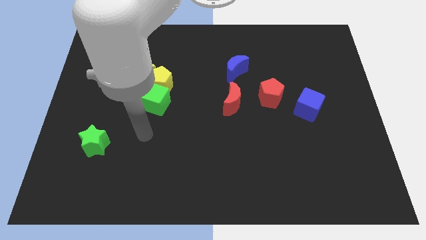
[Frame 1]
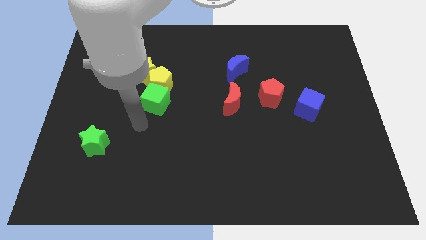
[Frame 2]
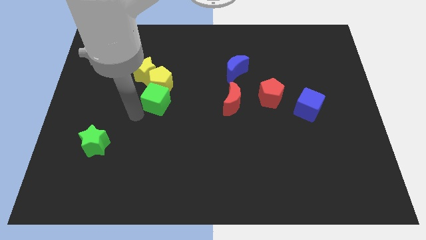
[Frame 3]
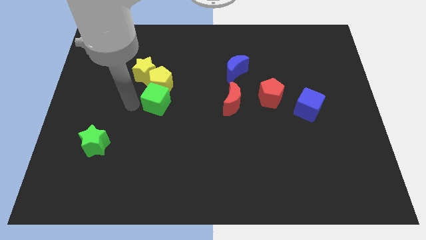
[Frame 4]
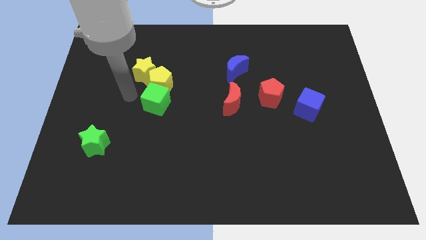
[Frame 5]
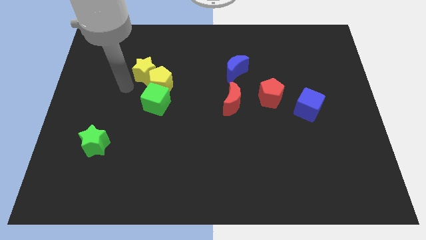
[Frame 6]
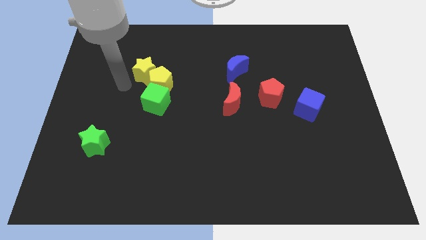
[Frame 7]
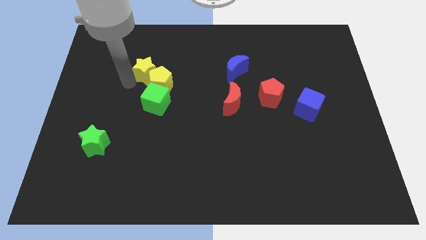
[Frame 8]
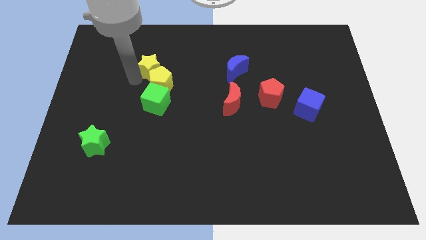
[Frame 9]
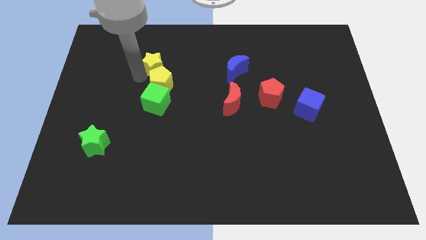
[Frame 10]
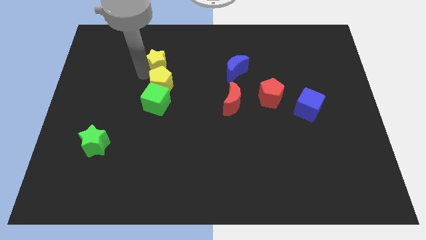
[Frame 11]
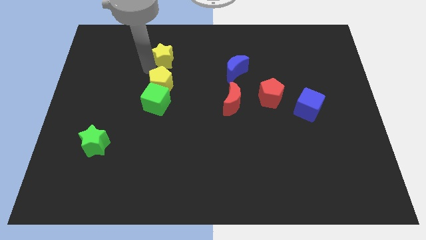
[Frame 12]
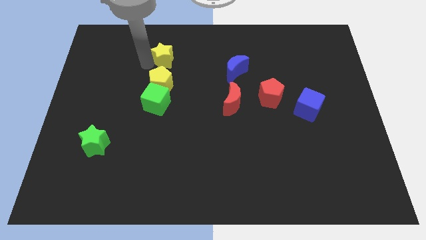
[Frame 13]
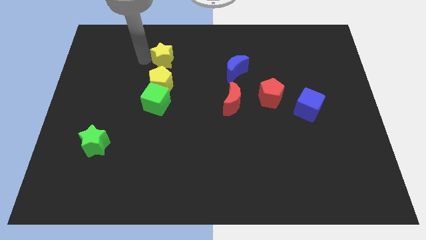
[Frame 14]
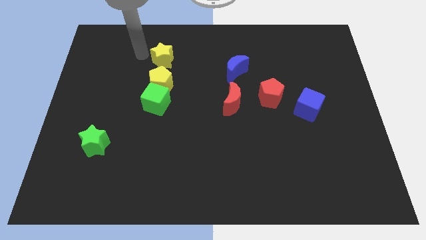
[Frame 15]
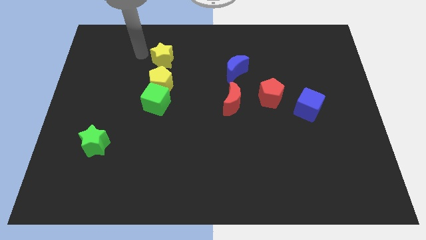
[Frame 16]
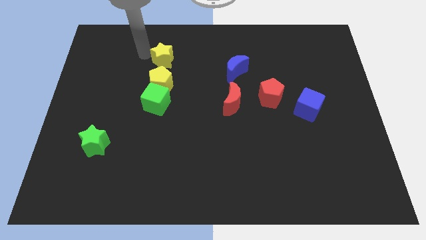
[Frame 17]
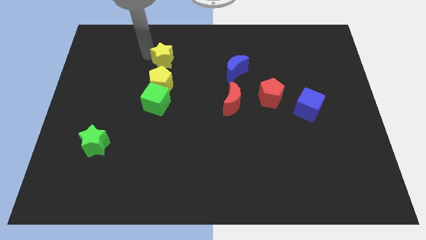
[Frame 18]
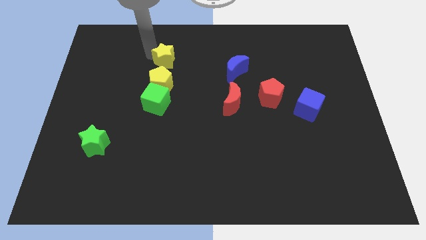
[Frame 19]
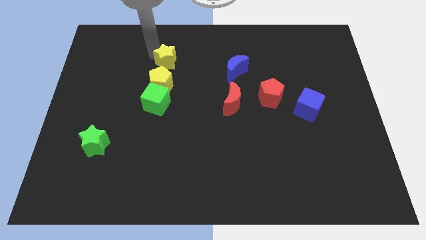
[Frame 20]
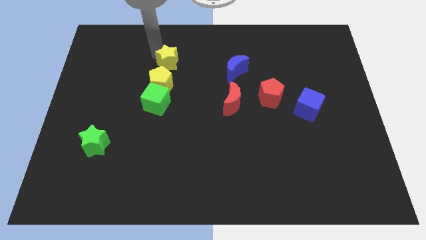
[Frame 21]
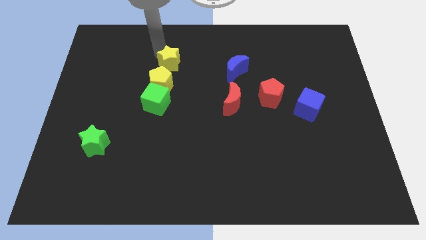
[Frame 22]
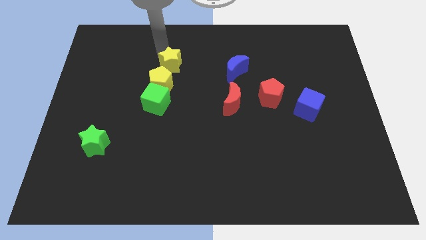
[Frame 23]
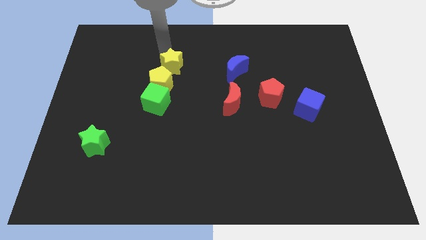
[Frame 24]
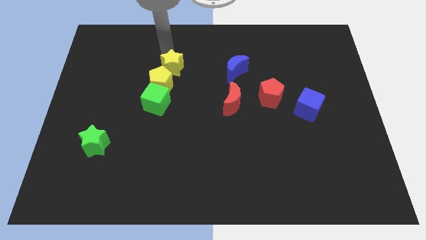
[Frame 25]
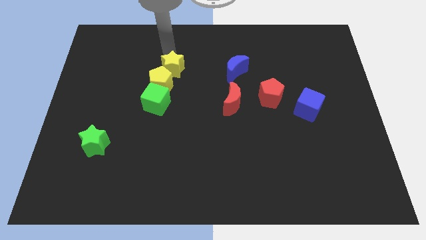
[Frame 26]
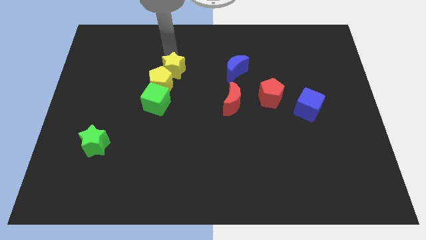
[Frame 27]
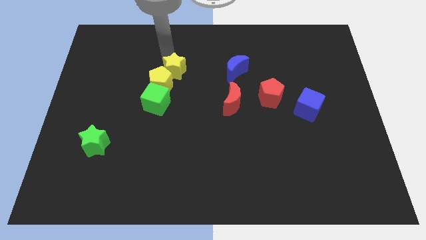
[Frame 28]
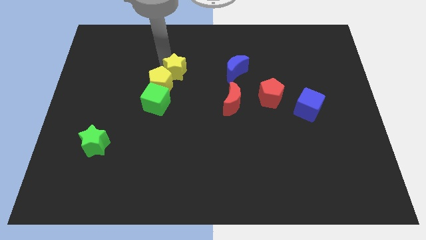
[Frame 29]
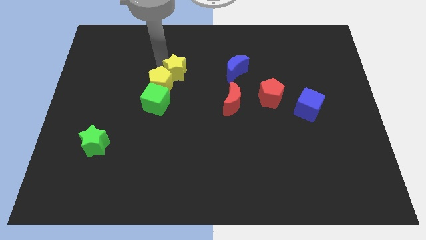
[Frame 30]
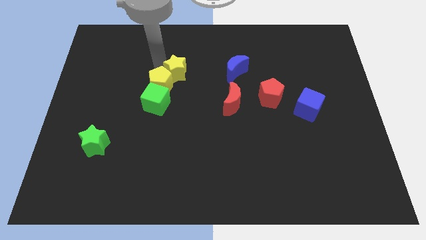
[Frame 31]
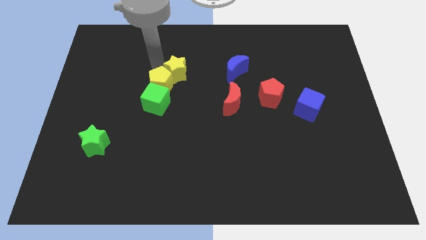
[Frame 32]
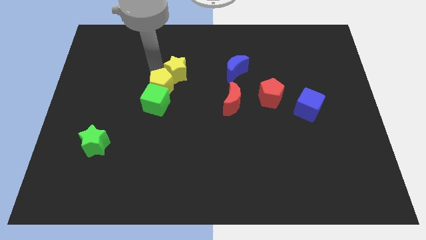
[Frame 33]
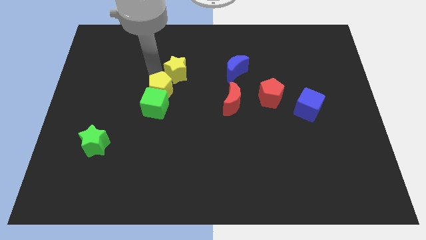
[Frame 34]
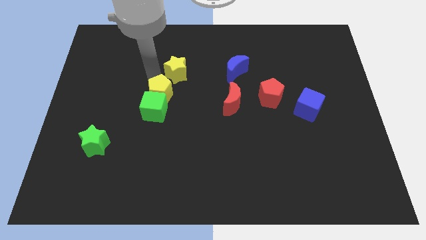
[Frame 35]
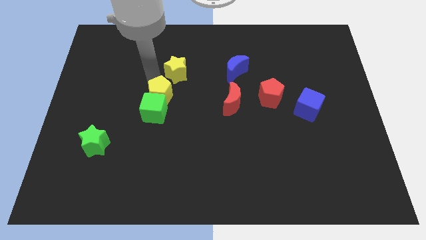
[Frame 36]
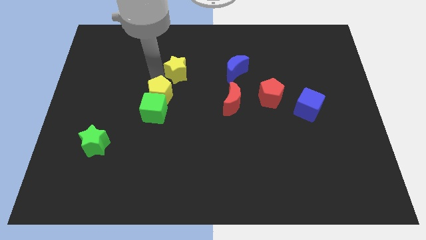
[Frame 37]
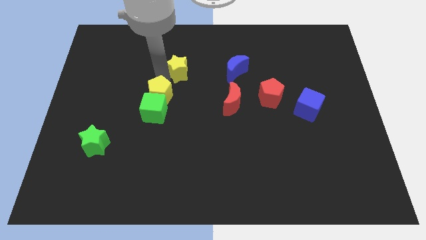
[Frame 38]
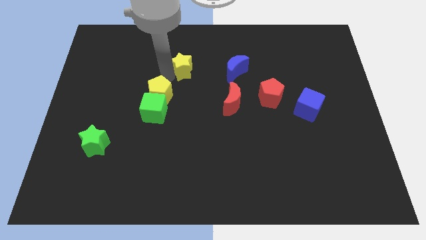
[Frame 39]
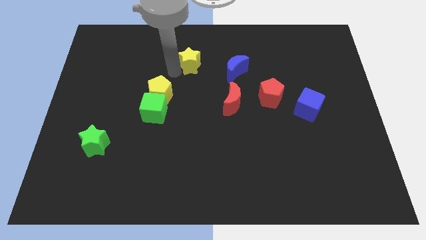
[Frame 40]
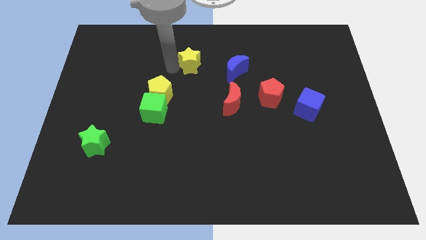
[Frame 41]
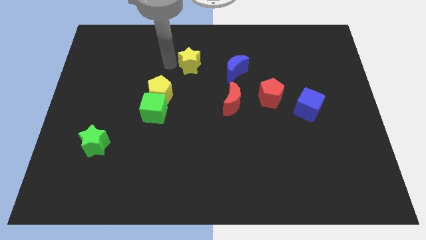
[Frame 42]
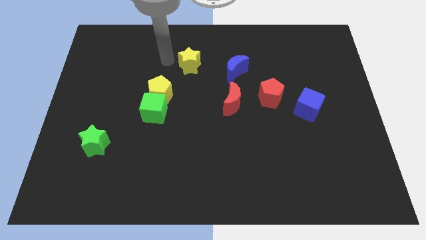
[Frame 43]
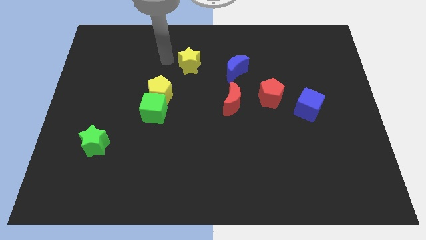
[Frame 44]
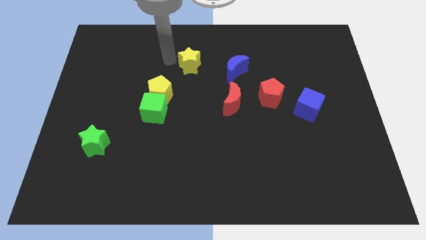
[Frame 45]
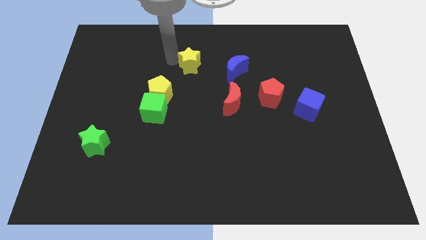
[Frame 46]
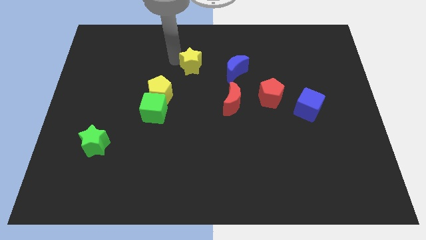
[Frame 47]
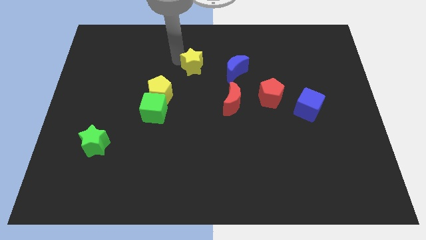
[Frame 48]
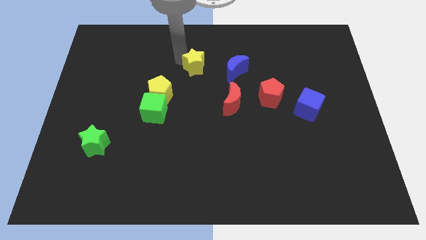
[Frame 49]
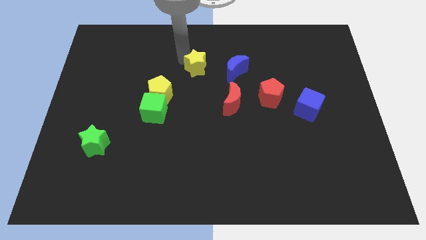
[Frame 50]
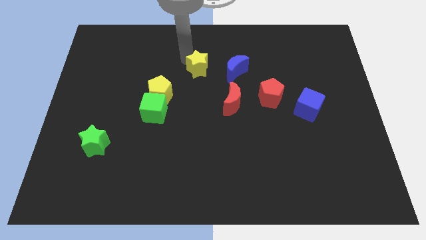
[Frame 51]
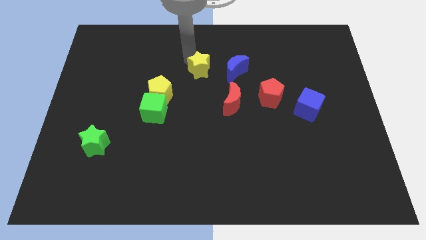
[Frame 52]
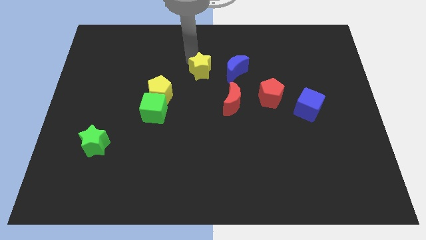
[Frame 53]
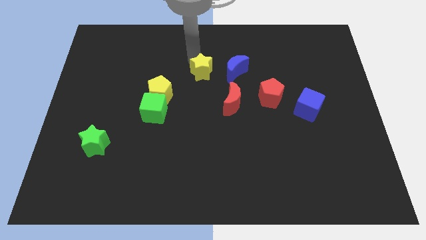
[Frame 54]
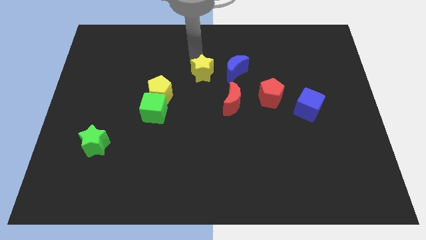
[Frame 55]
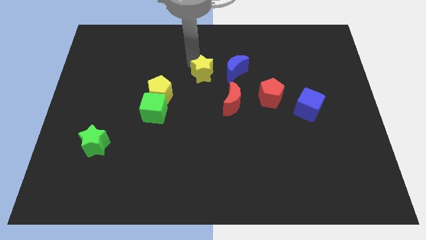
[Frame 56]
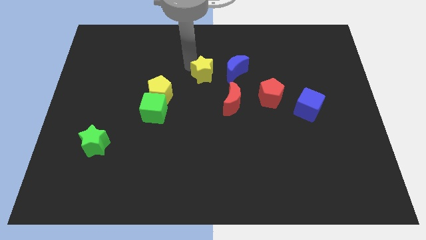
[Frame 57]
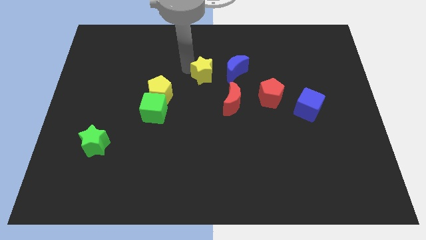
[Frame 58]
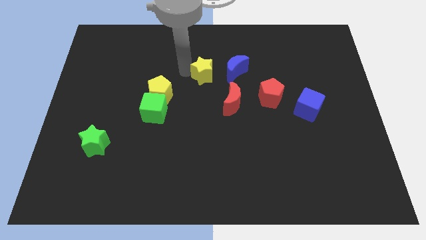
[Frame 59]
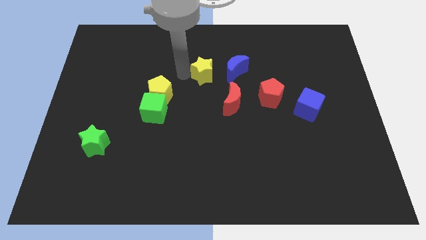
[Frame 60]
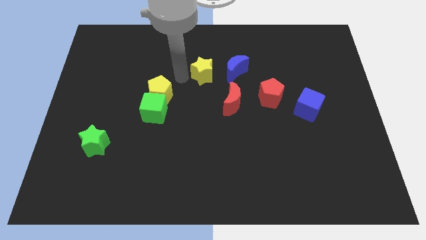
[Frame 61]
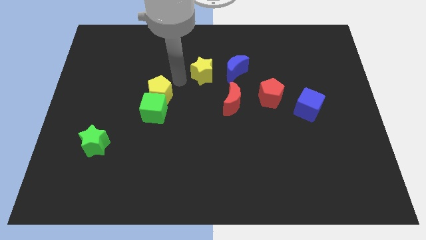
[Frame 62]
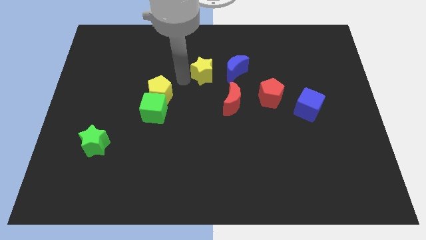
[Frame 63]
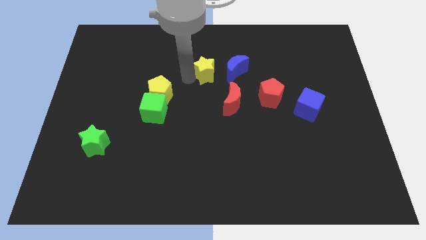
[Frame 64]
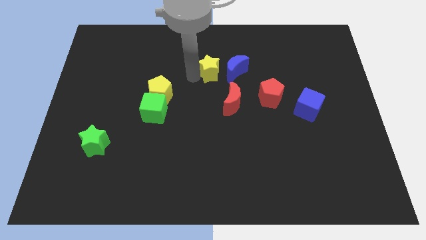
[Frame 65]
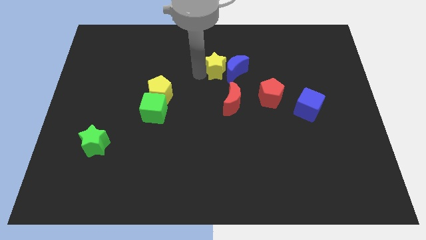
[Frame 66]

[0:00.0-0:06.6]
move the yellow star towards the blue moon

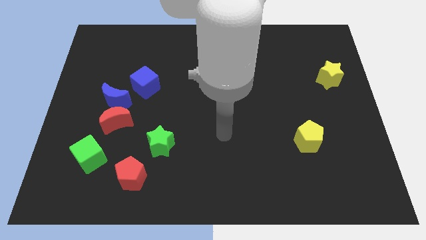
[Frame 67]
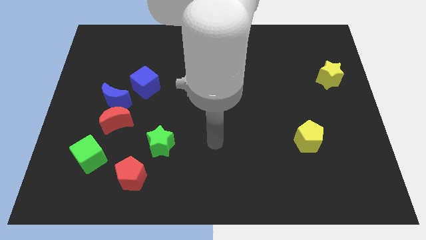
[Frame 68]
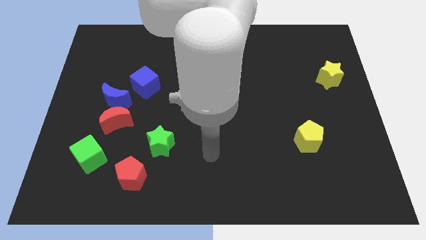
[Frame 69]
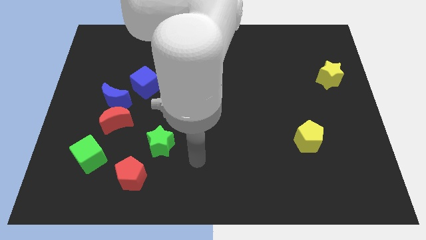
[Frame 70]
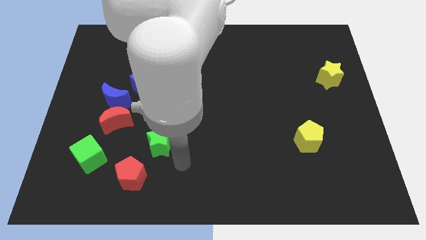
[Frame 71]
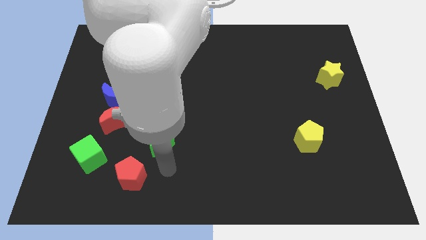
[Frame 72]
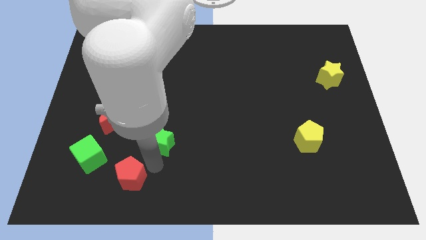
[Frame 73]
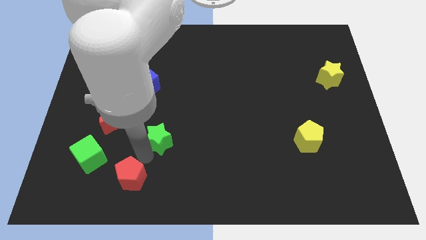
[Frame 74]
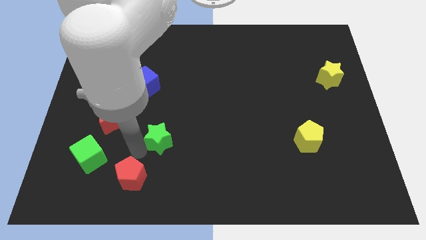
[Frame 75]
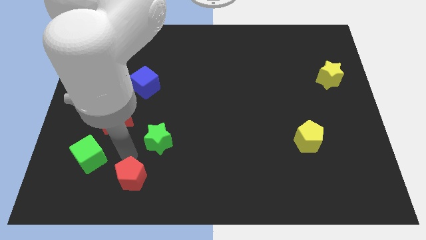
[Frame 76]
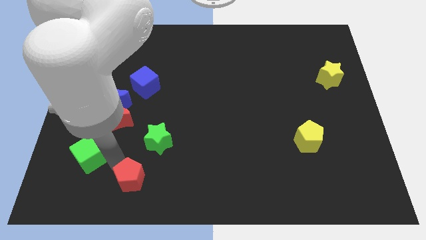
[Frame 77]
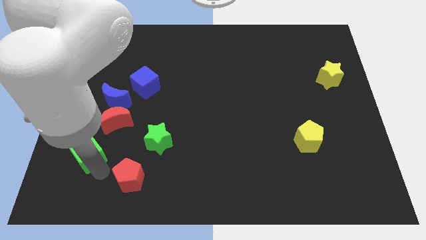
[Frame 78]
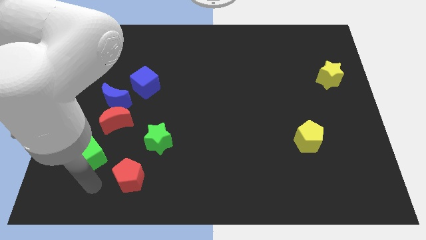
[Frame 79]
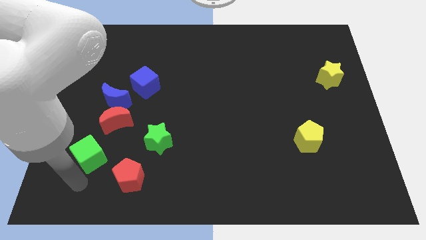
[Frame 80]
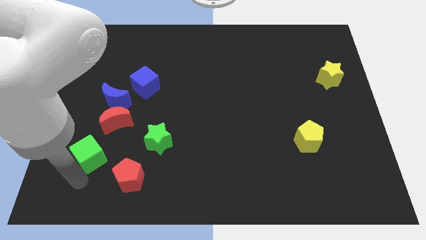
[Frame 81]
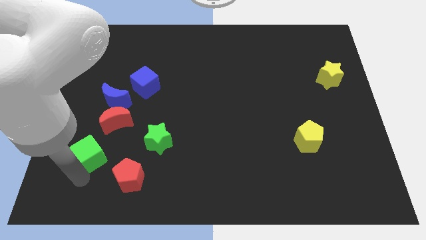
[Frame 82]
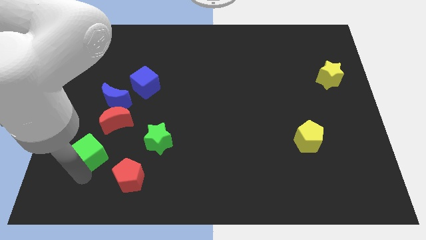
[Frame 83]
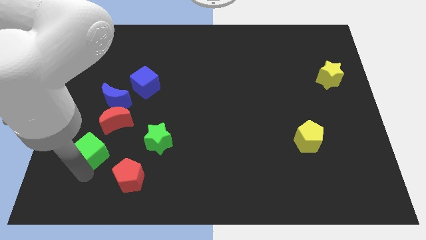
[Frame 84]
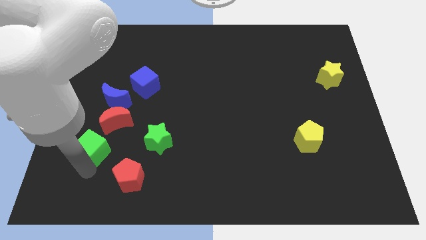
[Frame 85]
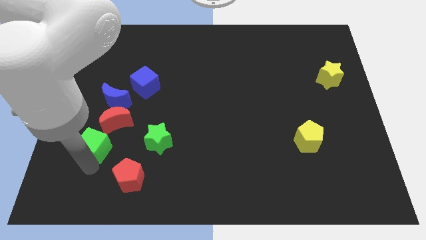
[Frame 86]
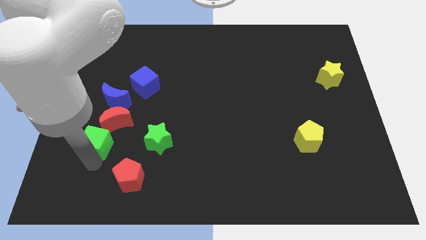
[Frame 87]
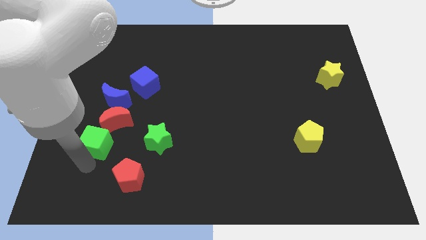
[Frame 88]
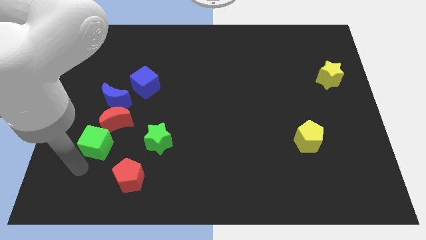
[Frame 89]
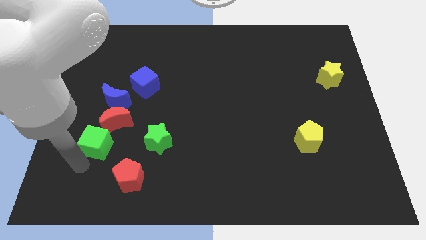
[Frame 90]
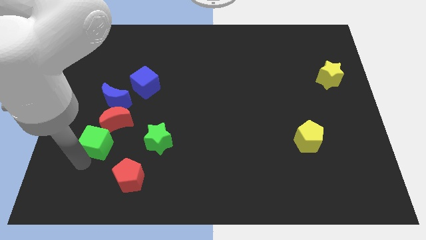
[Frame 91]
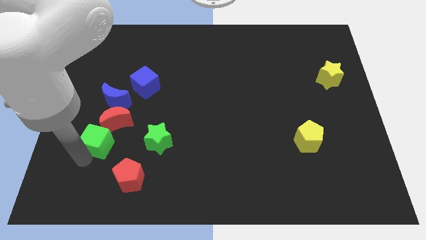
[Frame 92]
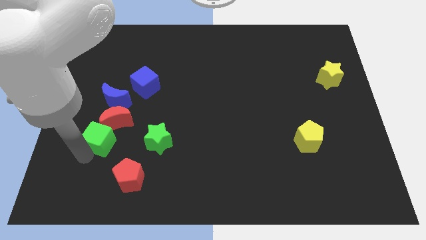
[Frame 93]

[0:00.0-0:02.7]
move the green cube towards the red moon
